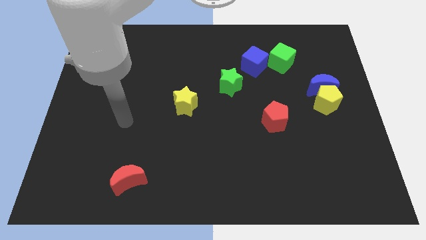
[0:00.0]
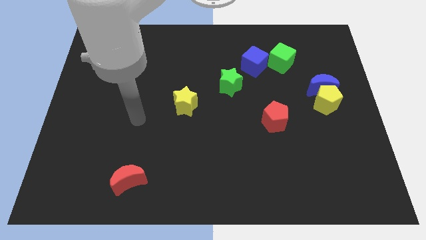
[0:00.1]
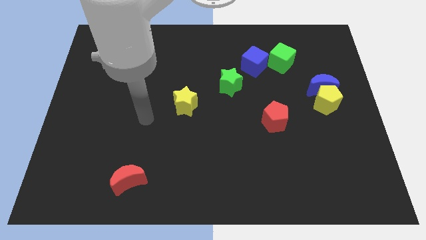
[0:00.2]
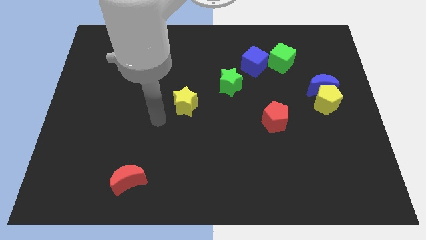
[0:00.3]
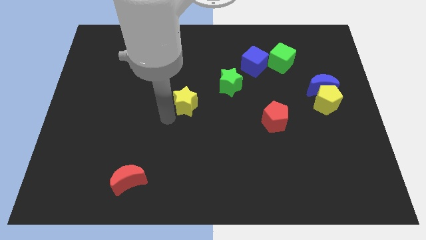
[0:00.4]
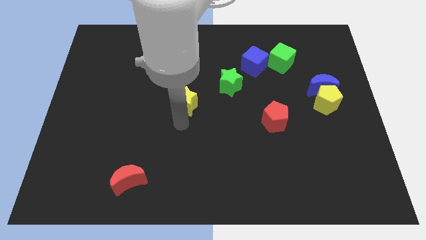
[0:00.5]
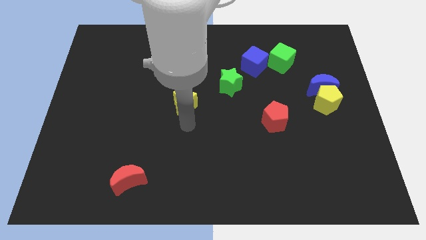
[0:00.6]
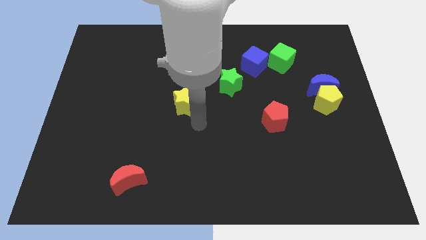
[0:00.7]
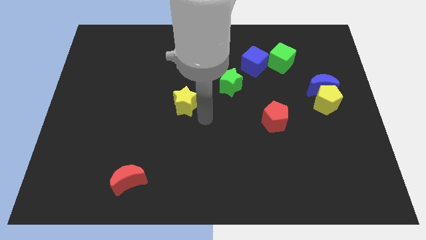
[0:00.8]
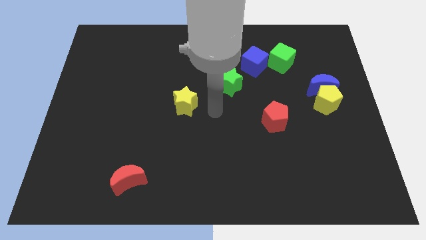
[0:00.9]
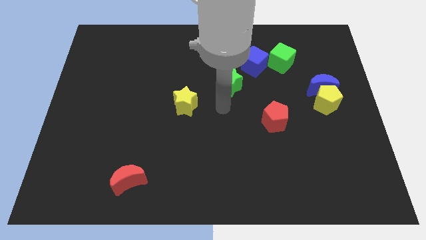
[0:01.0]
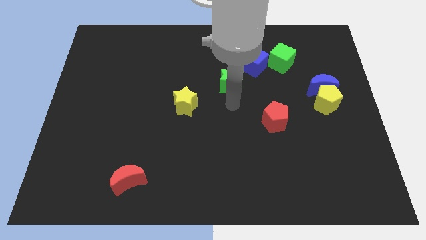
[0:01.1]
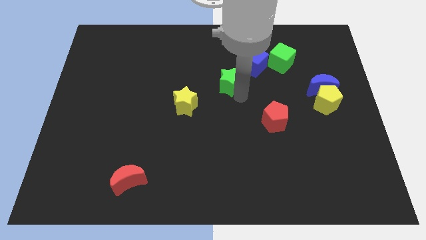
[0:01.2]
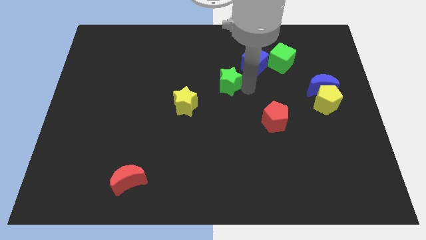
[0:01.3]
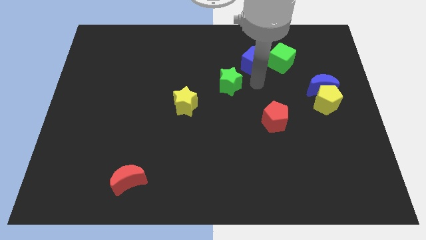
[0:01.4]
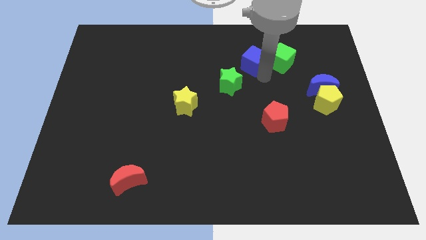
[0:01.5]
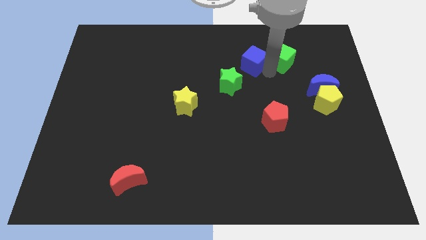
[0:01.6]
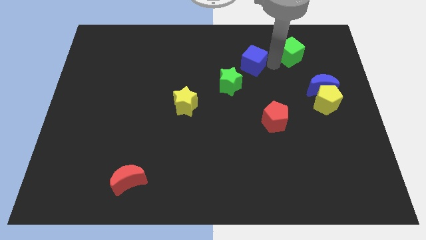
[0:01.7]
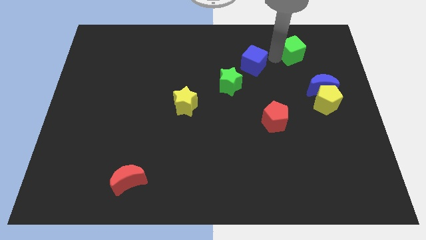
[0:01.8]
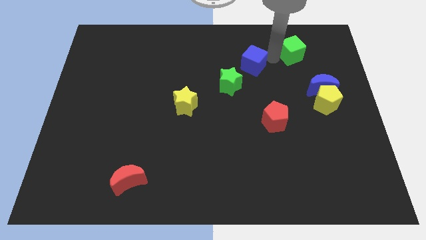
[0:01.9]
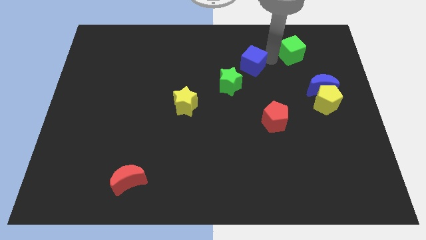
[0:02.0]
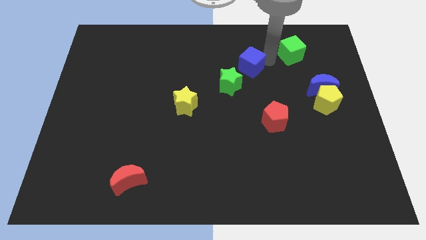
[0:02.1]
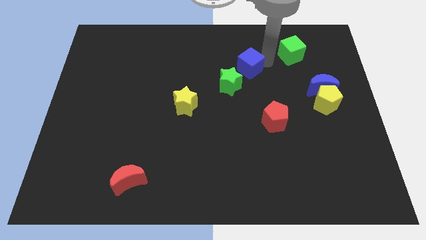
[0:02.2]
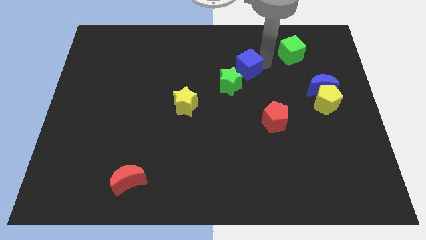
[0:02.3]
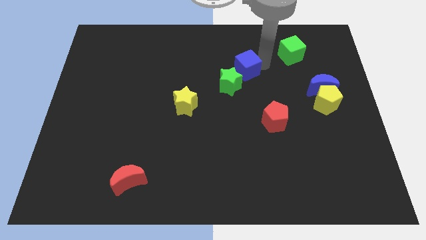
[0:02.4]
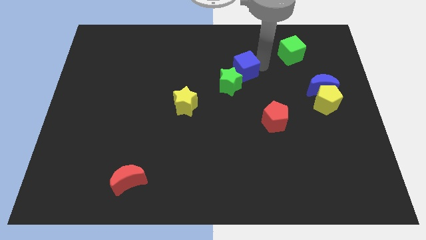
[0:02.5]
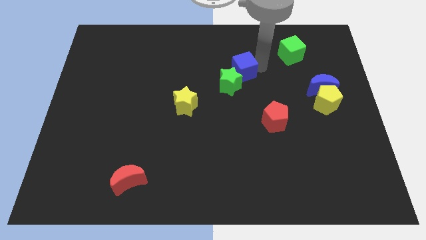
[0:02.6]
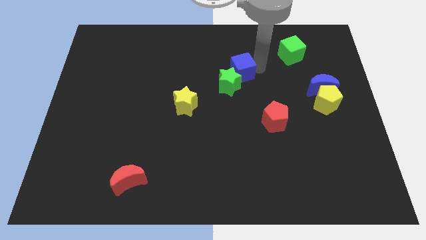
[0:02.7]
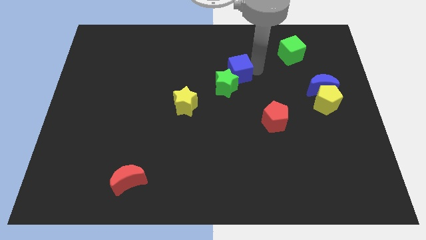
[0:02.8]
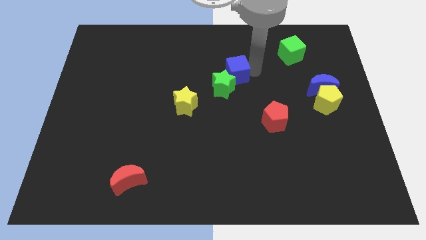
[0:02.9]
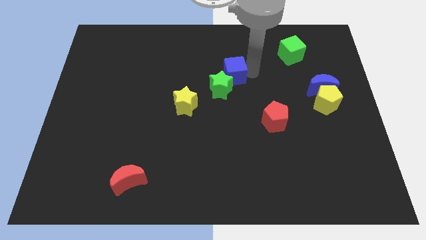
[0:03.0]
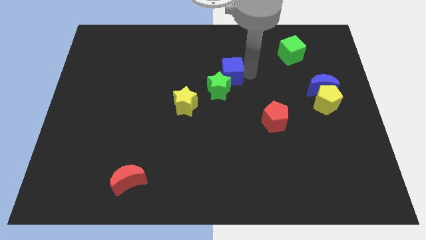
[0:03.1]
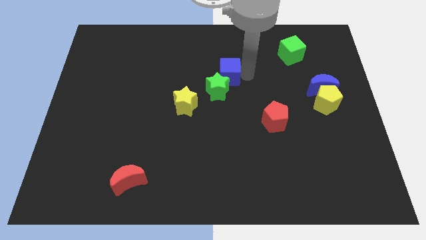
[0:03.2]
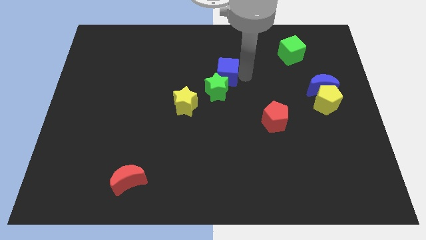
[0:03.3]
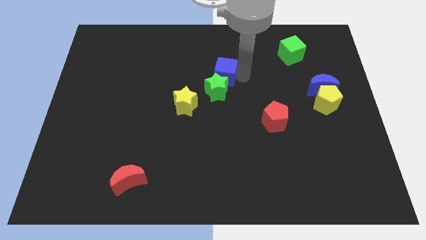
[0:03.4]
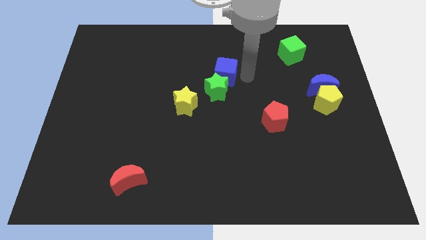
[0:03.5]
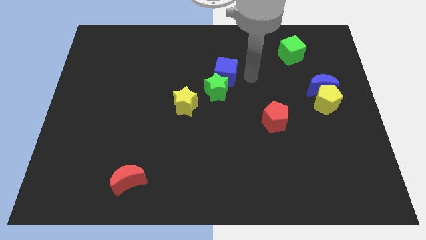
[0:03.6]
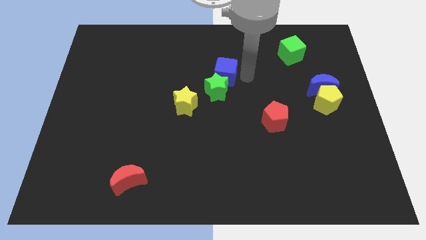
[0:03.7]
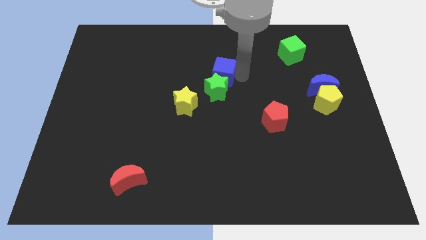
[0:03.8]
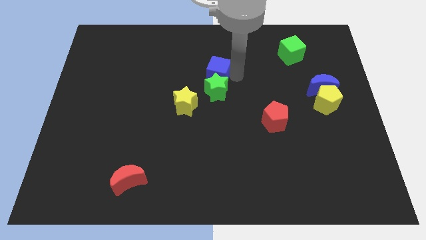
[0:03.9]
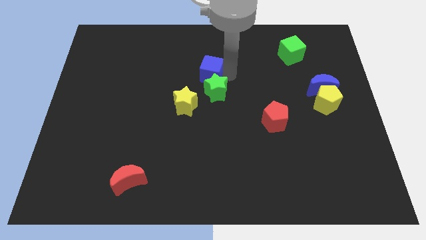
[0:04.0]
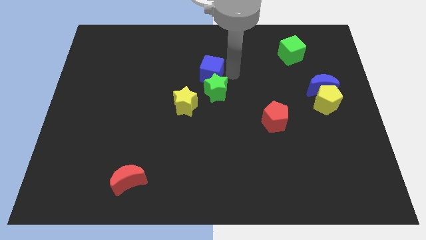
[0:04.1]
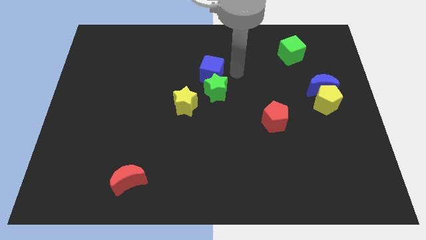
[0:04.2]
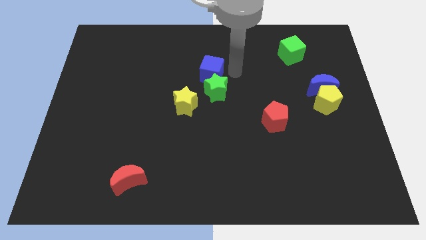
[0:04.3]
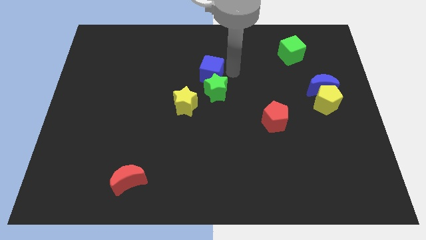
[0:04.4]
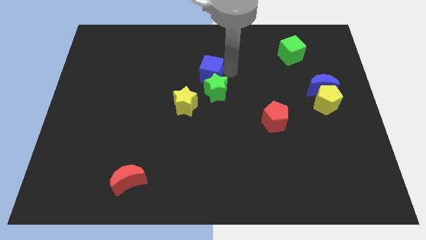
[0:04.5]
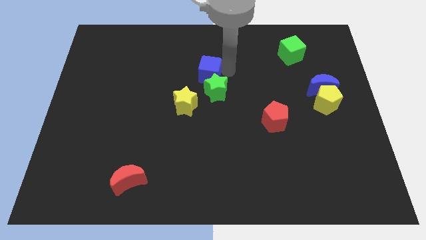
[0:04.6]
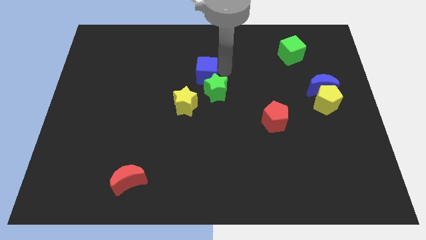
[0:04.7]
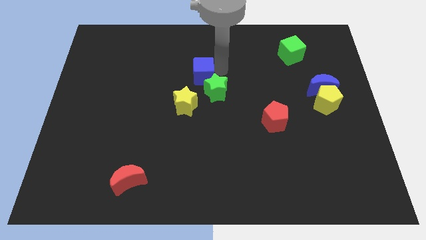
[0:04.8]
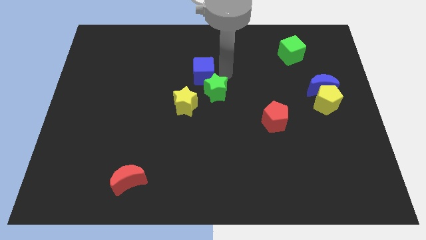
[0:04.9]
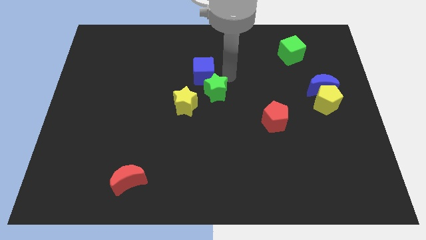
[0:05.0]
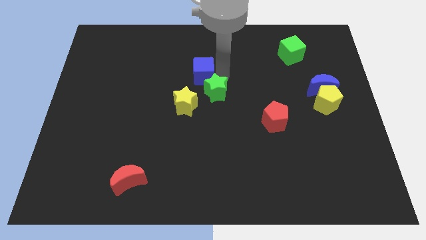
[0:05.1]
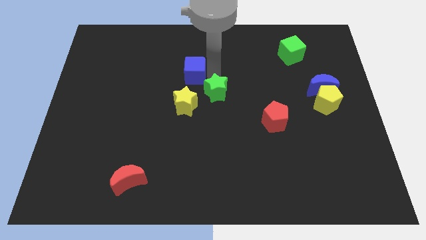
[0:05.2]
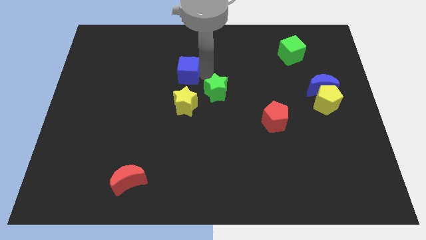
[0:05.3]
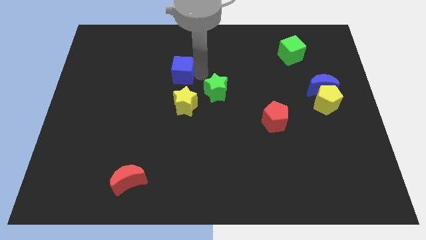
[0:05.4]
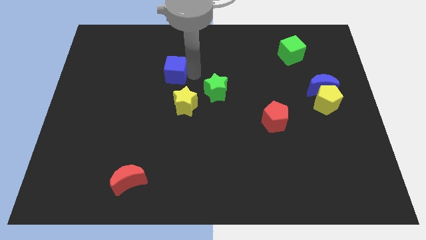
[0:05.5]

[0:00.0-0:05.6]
push the blue cube to the left

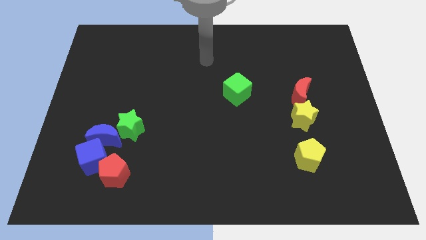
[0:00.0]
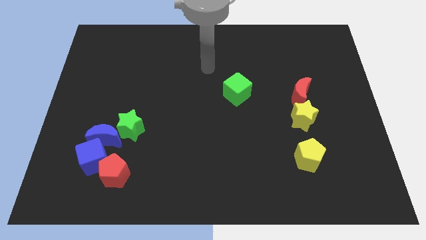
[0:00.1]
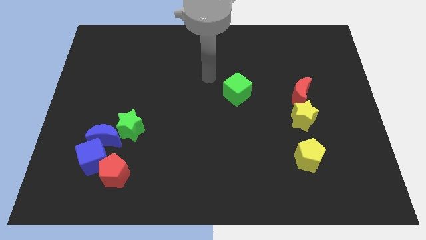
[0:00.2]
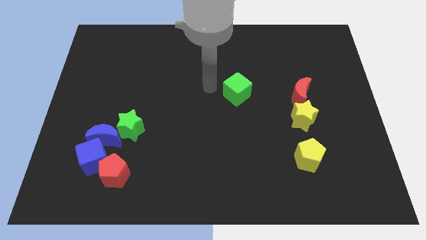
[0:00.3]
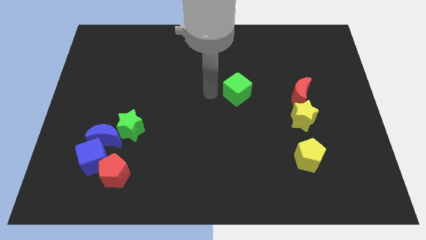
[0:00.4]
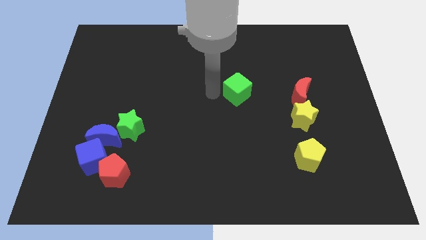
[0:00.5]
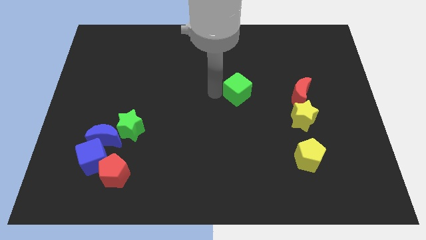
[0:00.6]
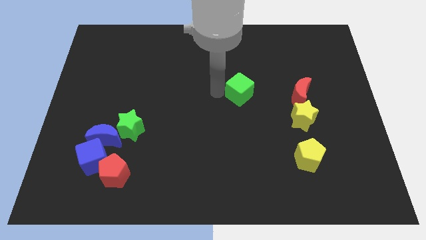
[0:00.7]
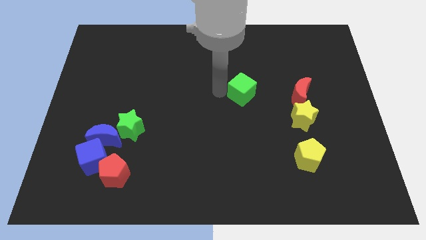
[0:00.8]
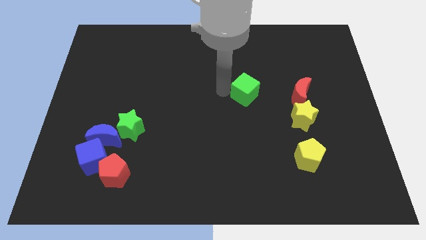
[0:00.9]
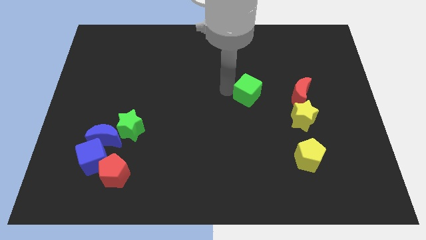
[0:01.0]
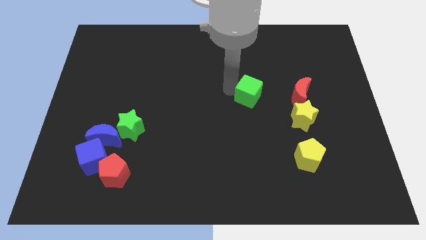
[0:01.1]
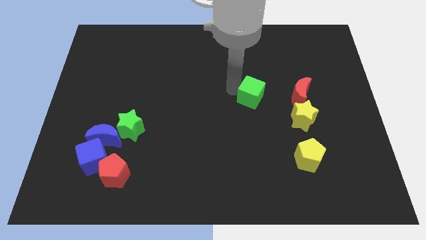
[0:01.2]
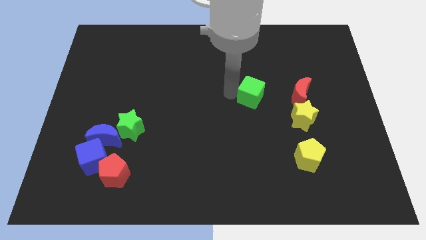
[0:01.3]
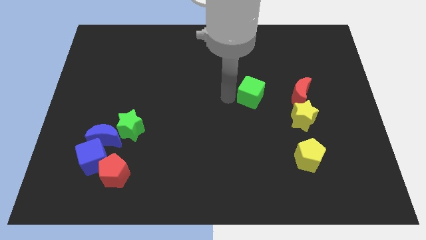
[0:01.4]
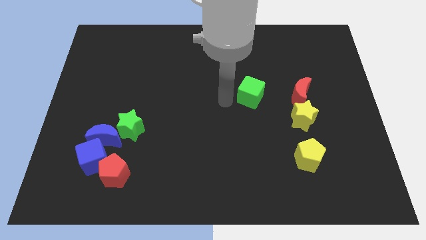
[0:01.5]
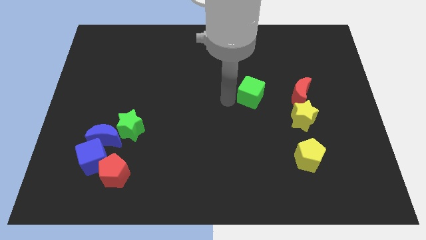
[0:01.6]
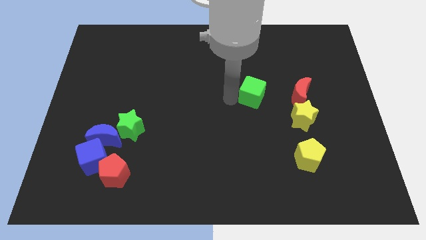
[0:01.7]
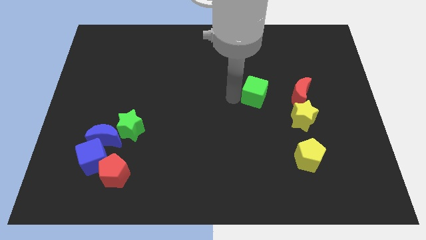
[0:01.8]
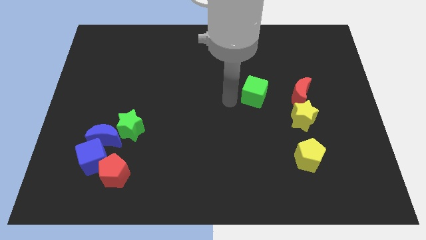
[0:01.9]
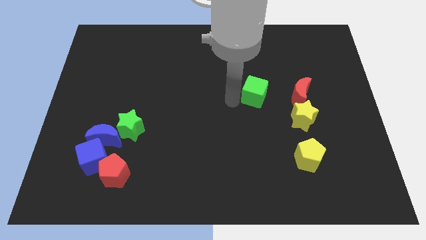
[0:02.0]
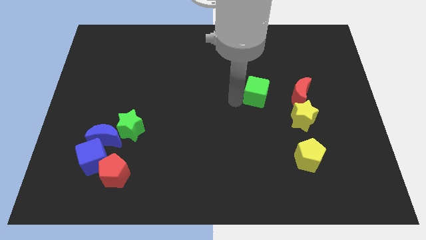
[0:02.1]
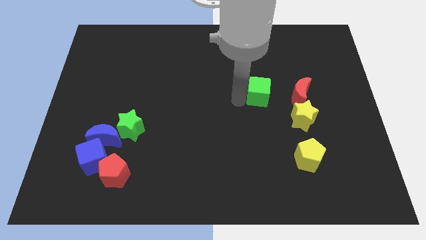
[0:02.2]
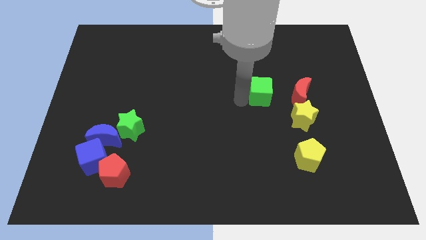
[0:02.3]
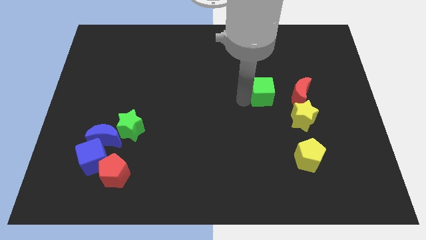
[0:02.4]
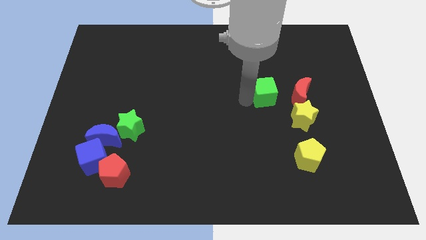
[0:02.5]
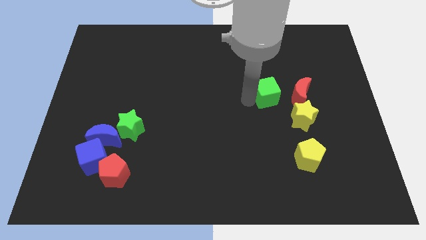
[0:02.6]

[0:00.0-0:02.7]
push the green cube a little bit to the right

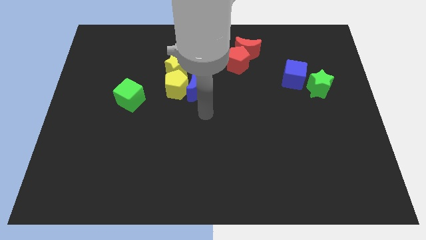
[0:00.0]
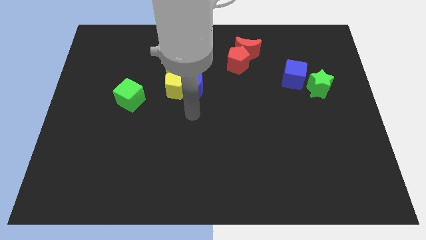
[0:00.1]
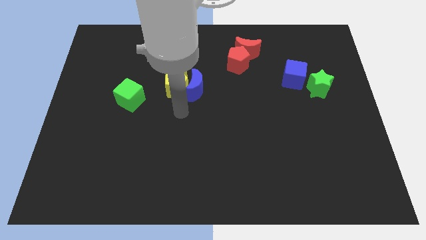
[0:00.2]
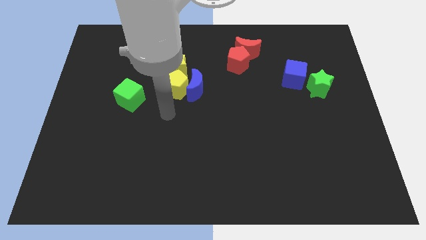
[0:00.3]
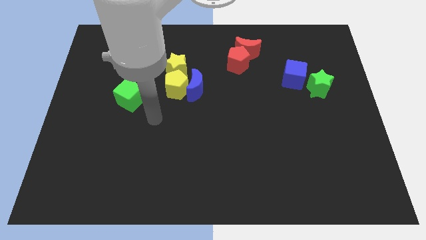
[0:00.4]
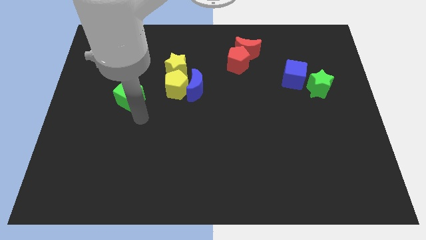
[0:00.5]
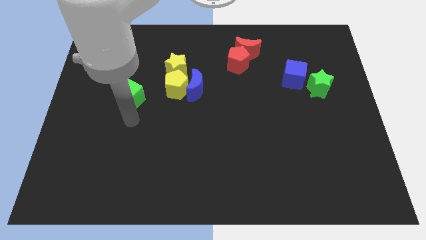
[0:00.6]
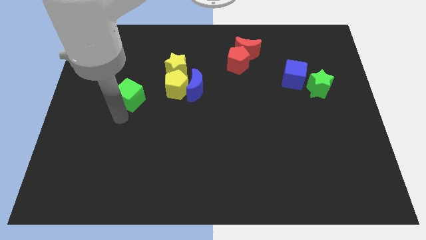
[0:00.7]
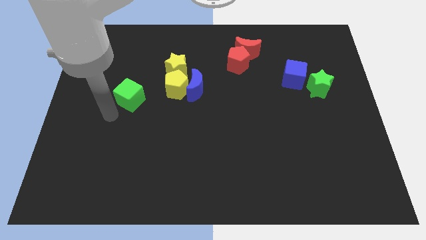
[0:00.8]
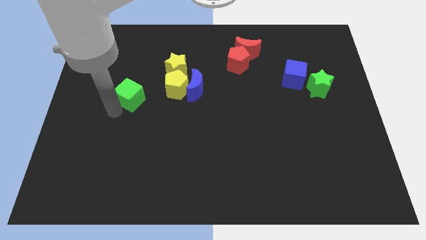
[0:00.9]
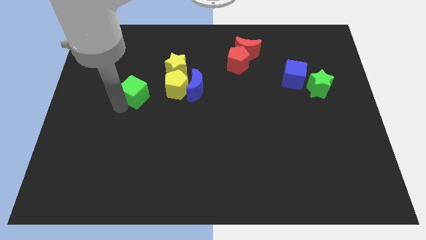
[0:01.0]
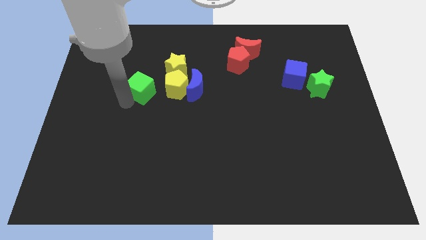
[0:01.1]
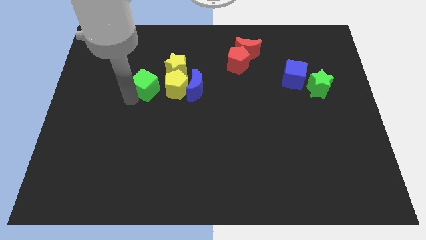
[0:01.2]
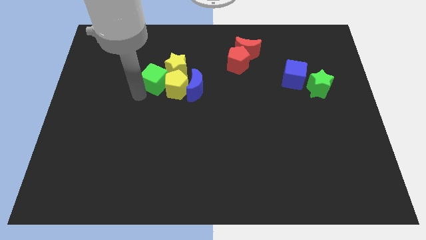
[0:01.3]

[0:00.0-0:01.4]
push the green cube a little up and then to the right
